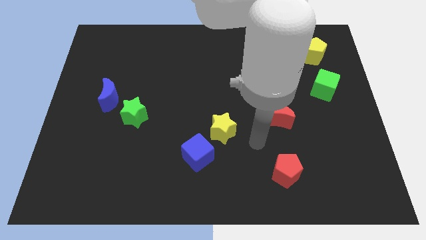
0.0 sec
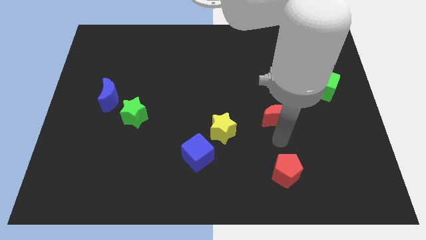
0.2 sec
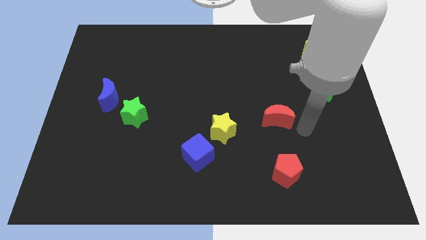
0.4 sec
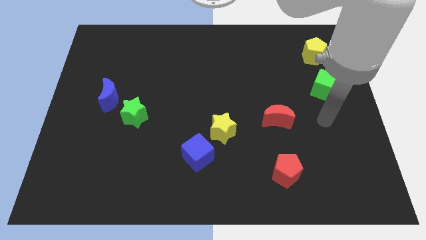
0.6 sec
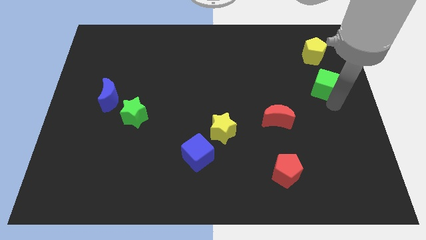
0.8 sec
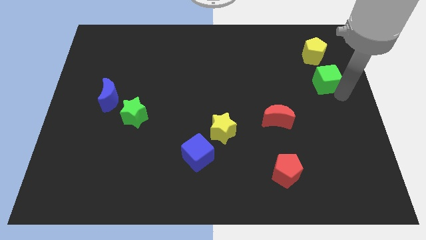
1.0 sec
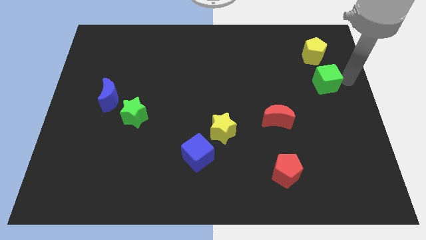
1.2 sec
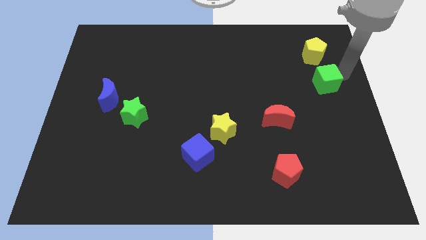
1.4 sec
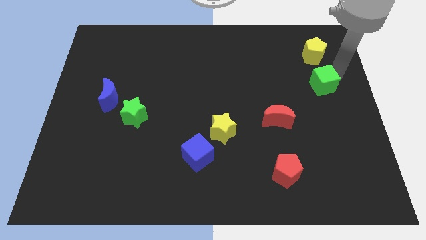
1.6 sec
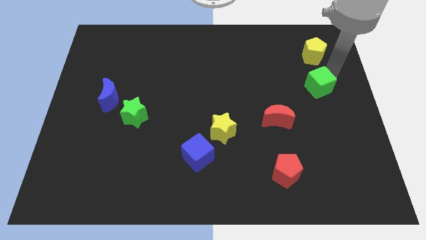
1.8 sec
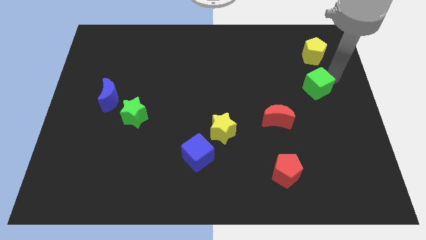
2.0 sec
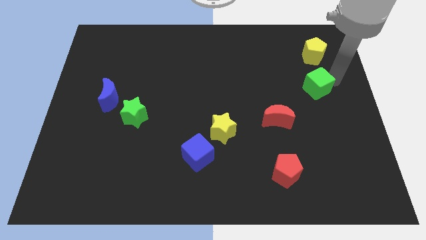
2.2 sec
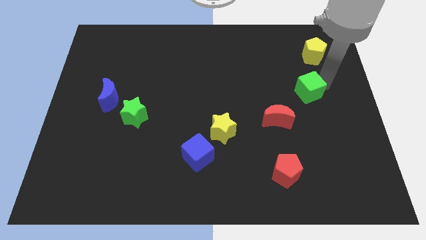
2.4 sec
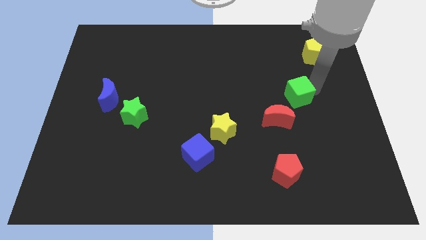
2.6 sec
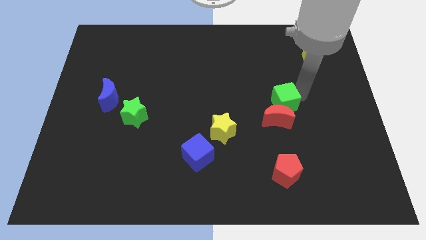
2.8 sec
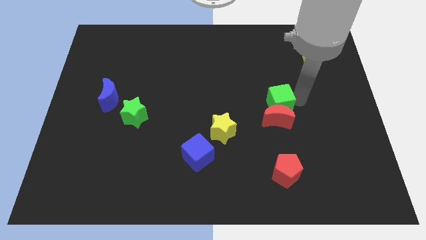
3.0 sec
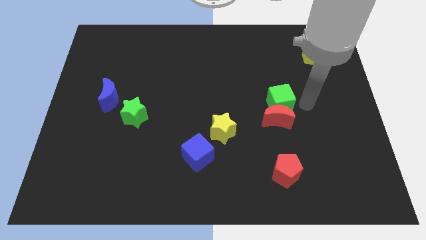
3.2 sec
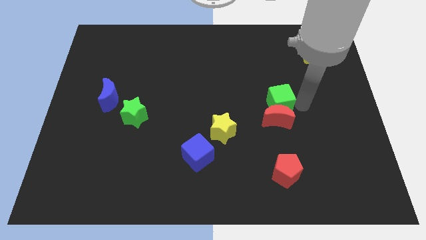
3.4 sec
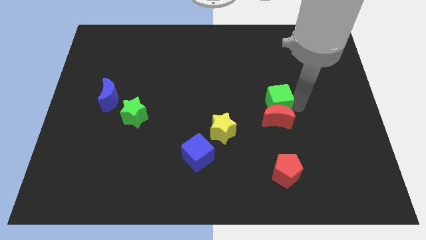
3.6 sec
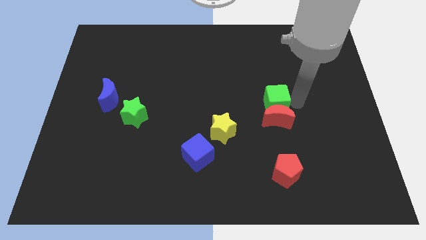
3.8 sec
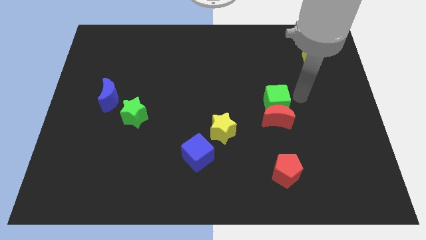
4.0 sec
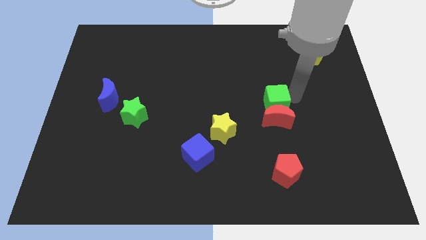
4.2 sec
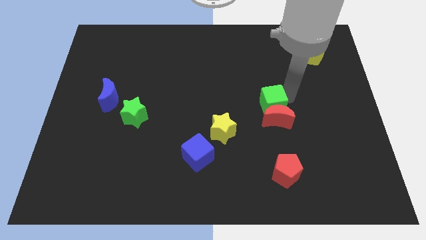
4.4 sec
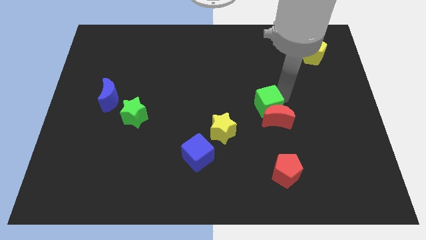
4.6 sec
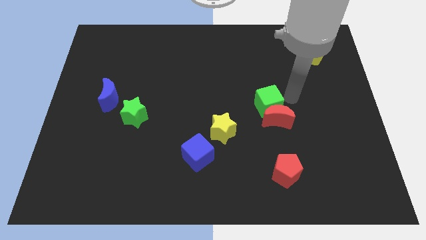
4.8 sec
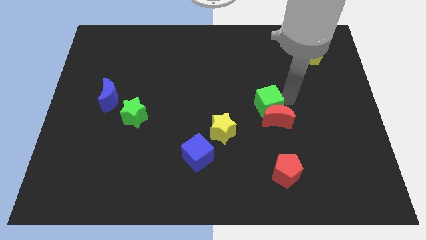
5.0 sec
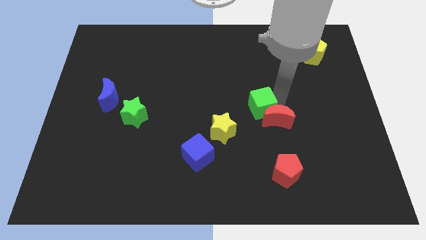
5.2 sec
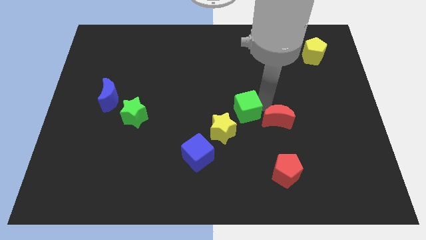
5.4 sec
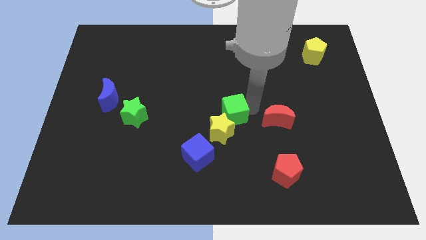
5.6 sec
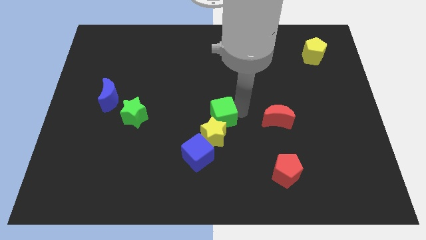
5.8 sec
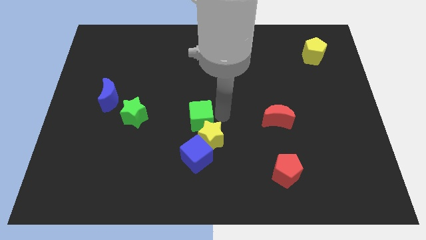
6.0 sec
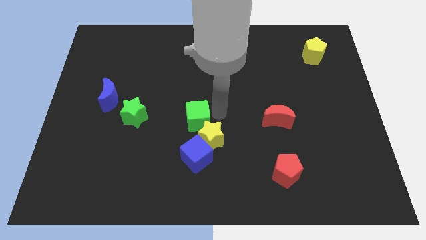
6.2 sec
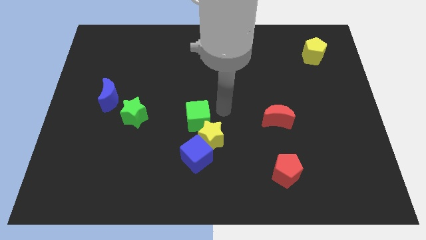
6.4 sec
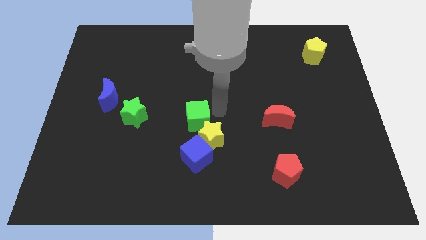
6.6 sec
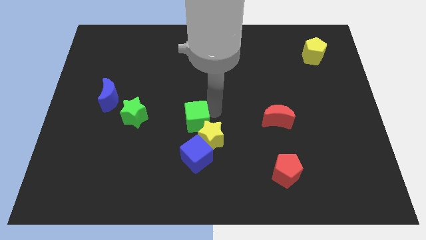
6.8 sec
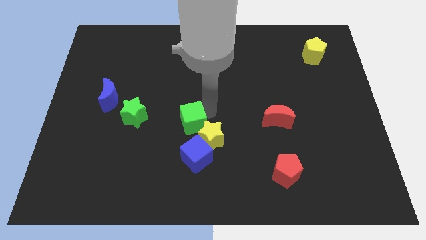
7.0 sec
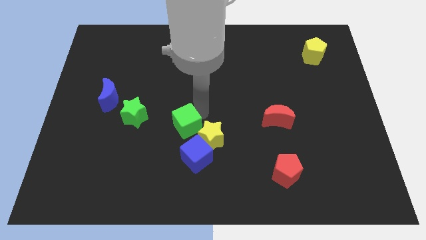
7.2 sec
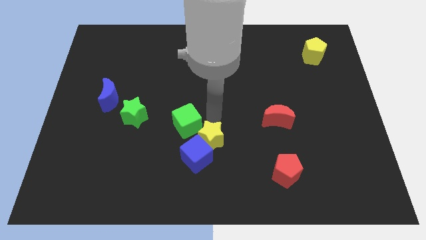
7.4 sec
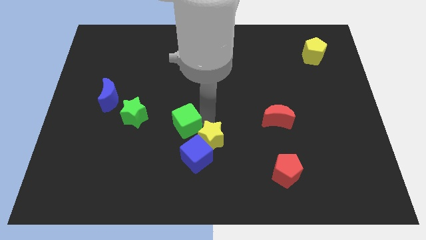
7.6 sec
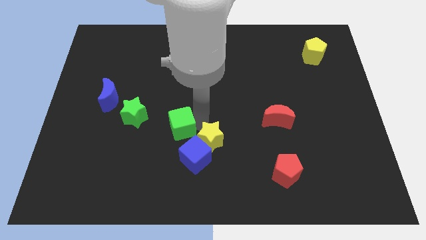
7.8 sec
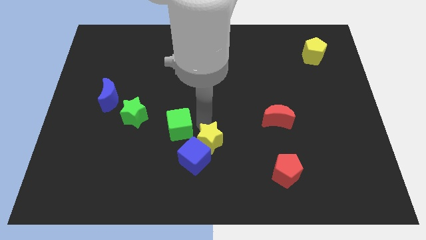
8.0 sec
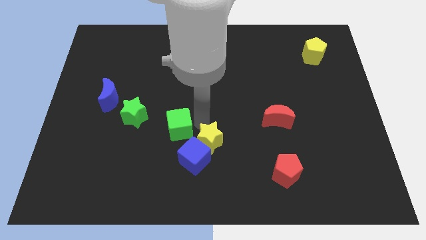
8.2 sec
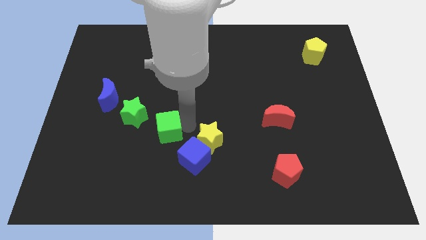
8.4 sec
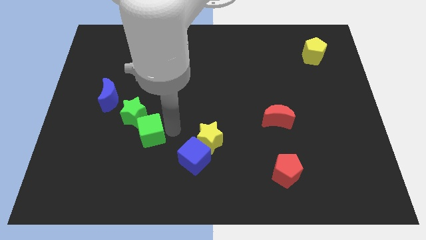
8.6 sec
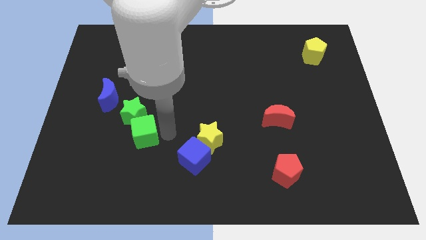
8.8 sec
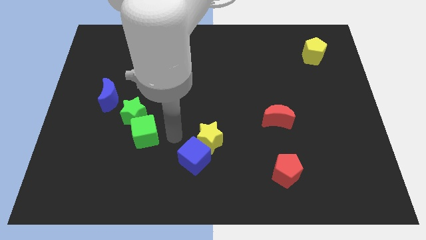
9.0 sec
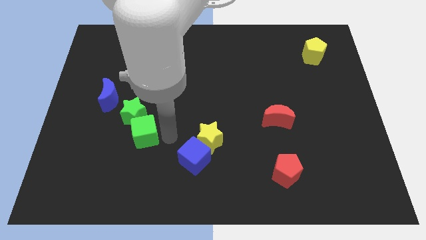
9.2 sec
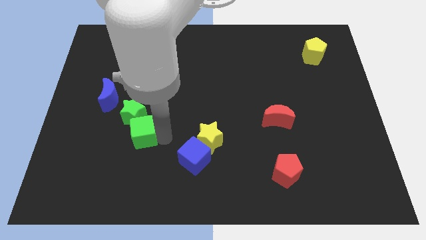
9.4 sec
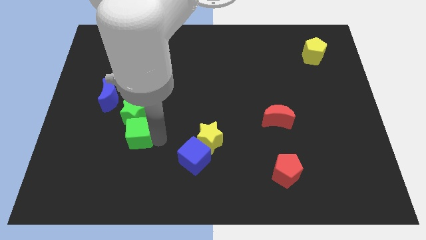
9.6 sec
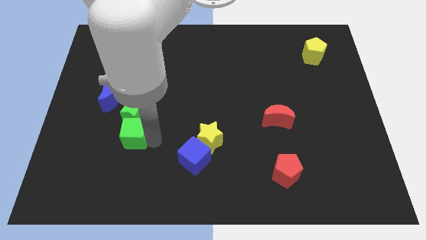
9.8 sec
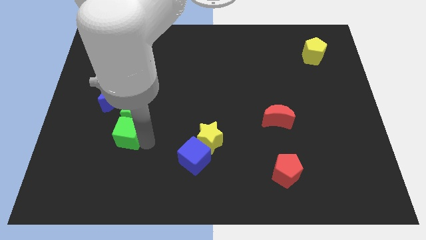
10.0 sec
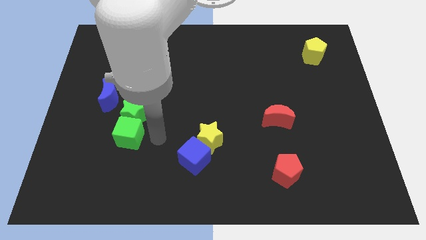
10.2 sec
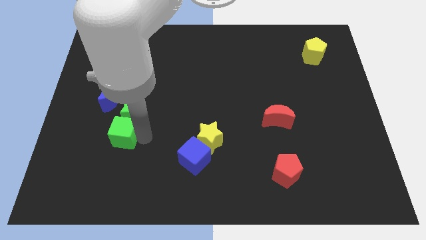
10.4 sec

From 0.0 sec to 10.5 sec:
push the green cube below the blue moon

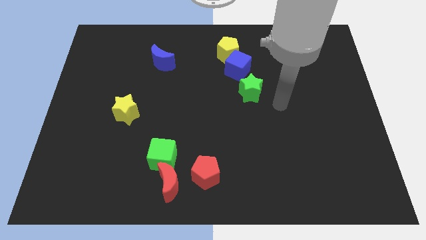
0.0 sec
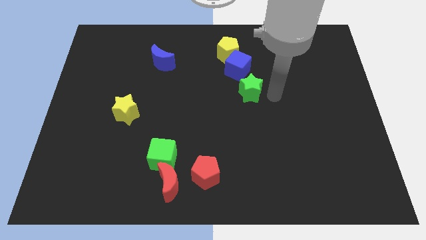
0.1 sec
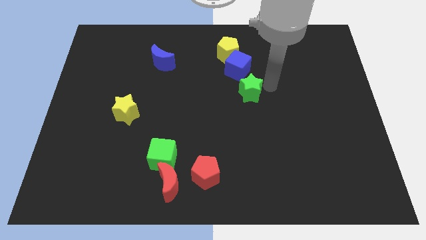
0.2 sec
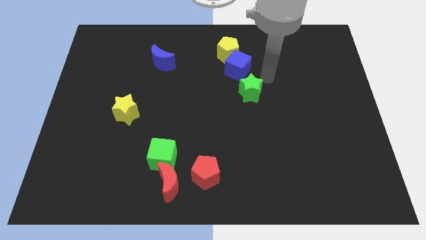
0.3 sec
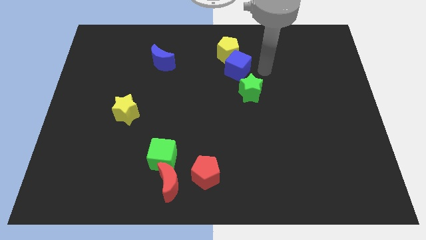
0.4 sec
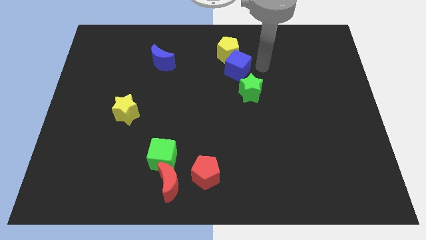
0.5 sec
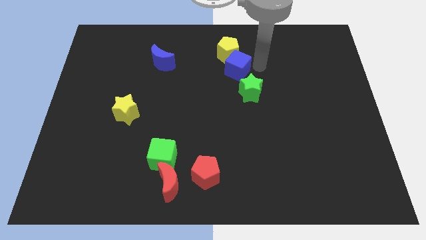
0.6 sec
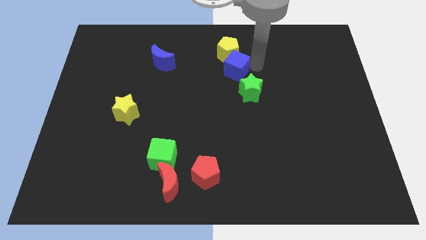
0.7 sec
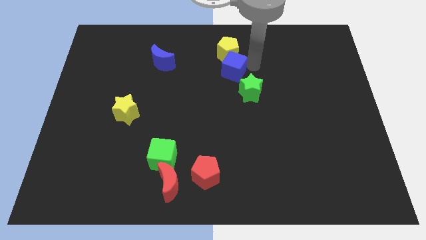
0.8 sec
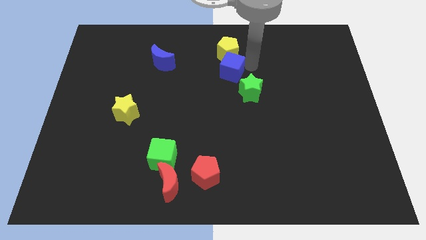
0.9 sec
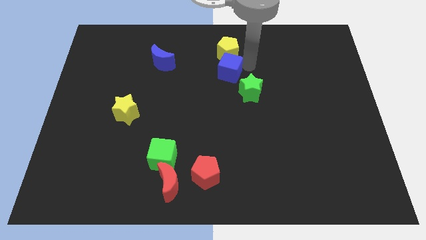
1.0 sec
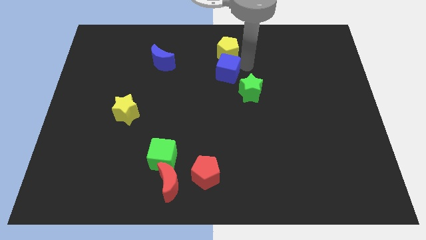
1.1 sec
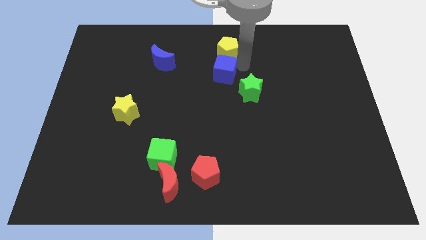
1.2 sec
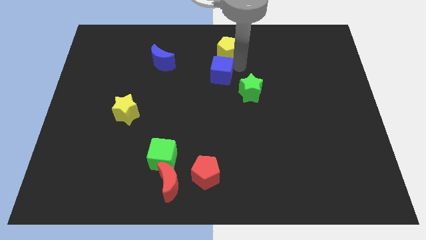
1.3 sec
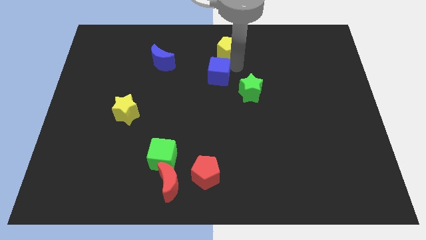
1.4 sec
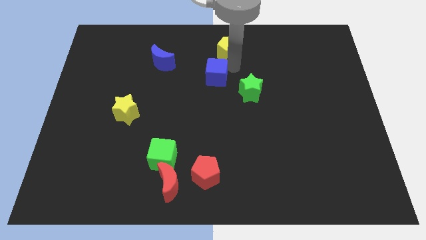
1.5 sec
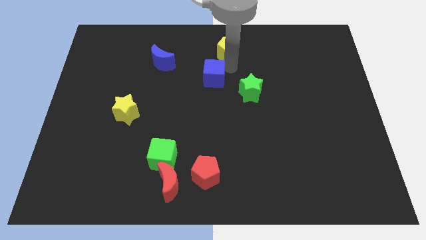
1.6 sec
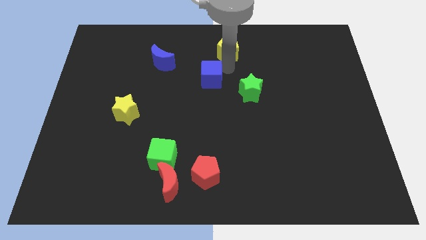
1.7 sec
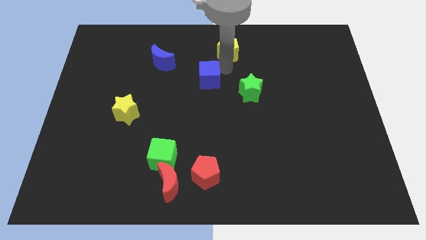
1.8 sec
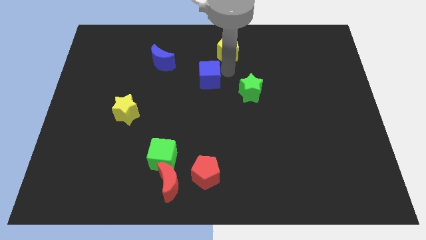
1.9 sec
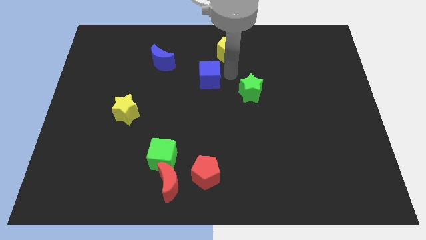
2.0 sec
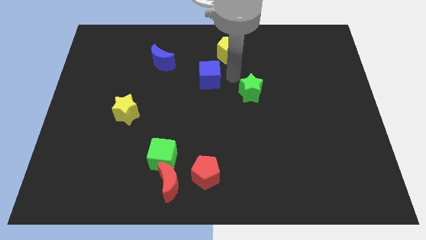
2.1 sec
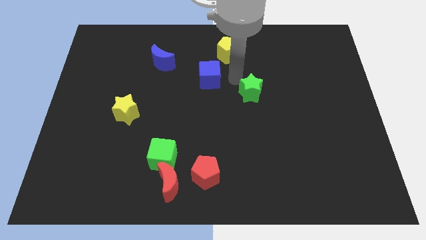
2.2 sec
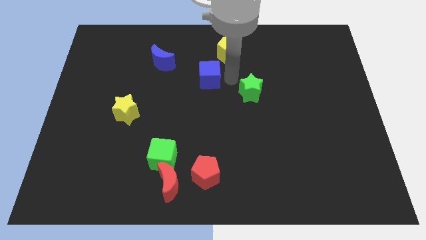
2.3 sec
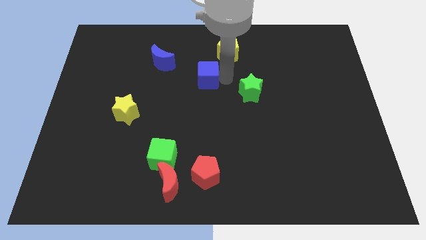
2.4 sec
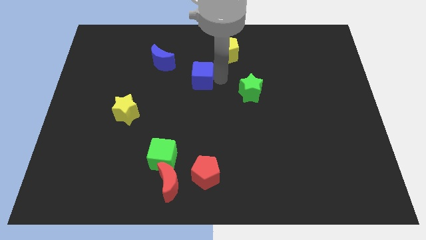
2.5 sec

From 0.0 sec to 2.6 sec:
push the blue cube to the bottom right side of the blue moon
